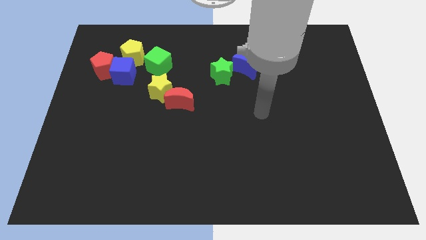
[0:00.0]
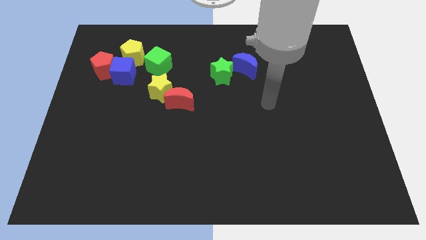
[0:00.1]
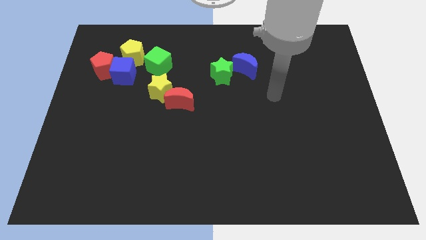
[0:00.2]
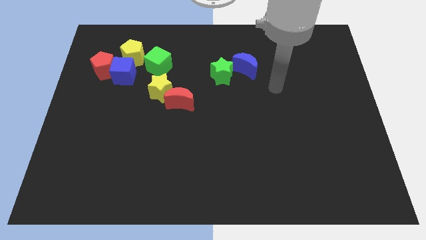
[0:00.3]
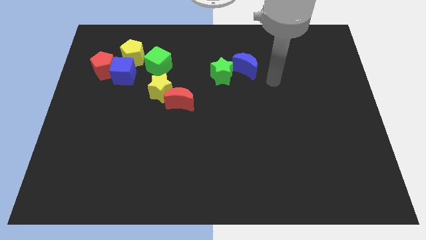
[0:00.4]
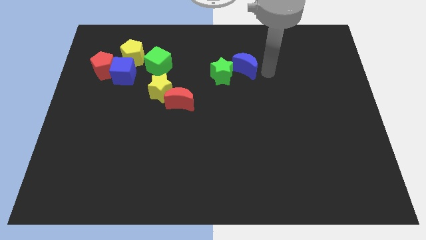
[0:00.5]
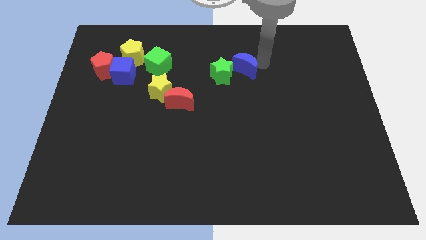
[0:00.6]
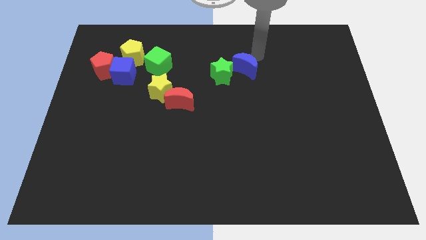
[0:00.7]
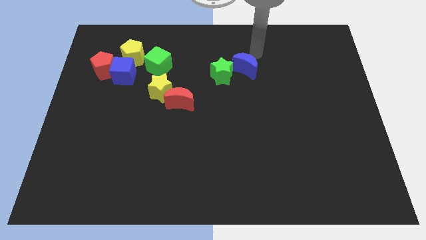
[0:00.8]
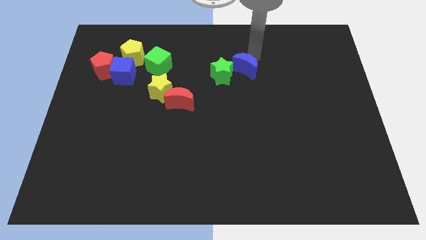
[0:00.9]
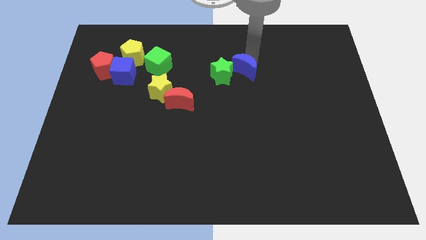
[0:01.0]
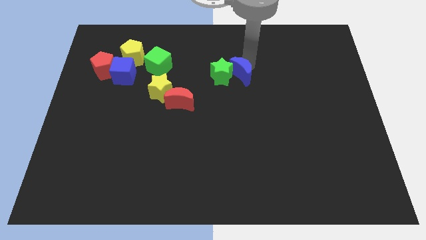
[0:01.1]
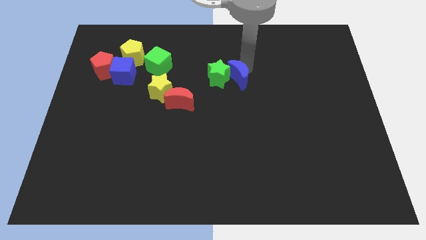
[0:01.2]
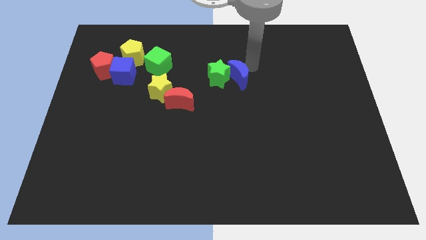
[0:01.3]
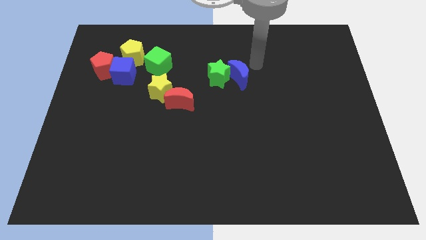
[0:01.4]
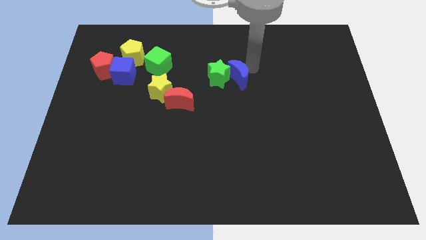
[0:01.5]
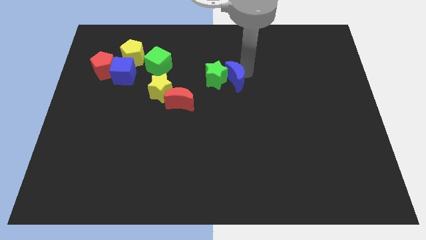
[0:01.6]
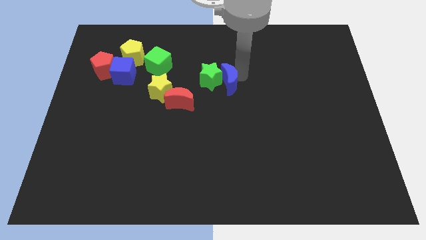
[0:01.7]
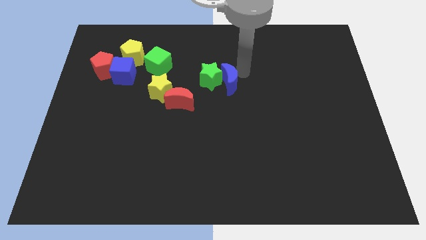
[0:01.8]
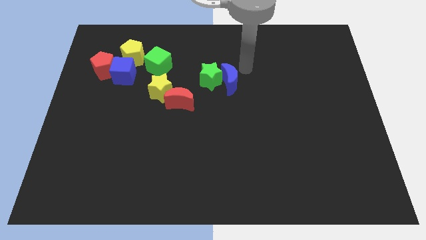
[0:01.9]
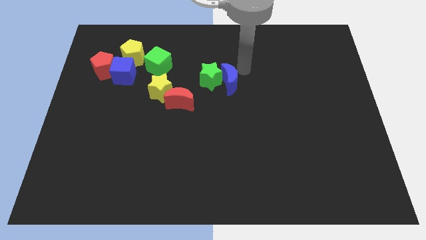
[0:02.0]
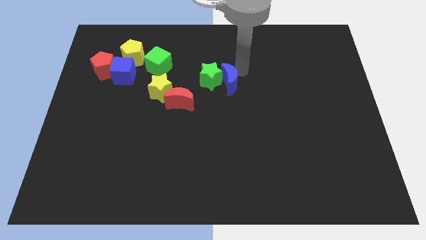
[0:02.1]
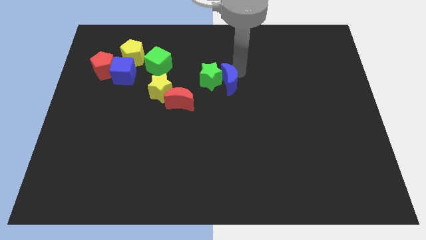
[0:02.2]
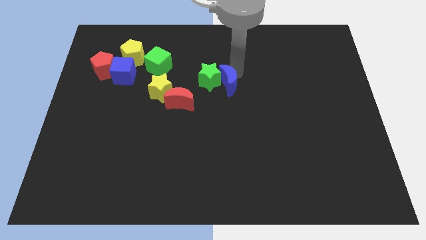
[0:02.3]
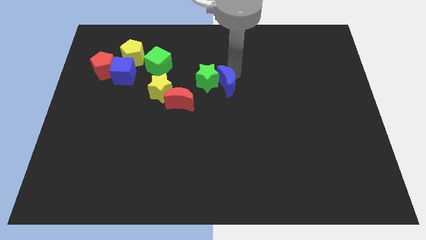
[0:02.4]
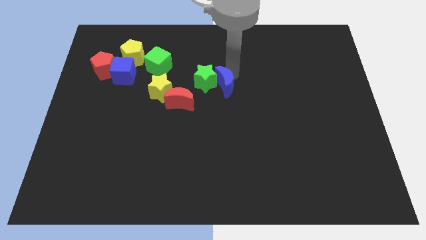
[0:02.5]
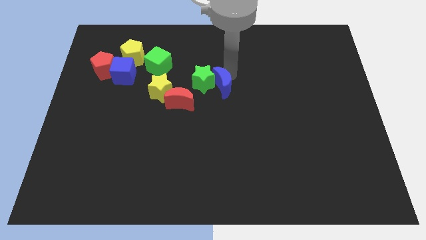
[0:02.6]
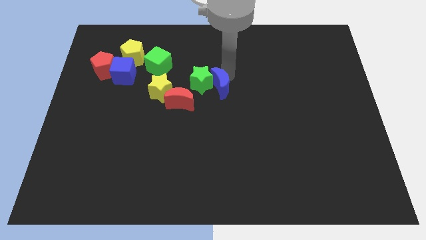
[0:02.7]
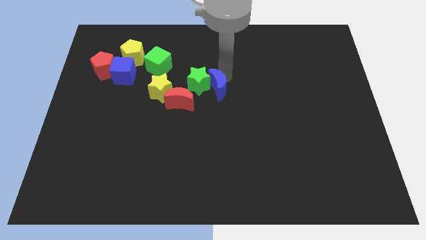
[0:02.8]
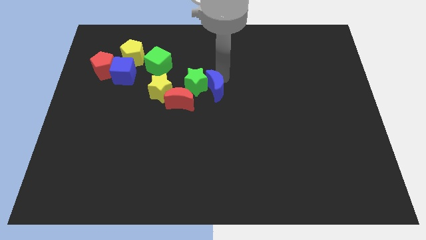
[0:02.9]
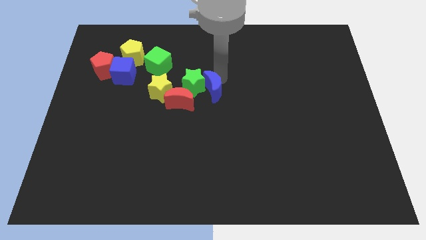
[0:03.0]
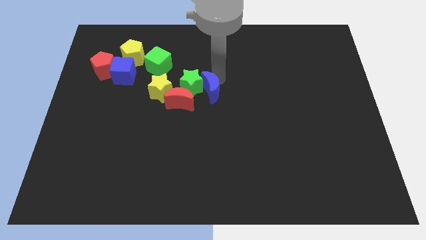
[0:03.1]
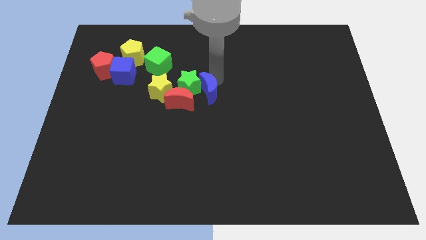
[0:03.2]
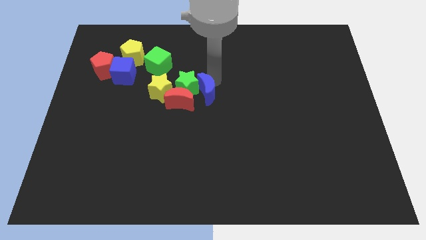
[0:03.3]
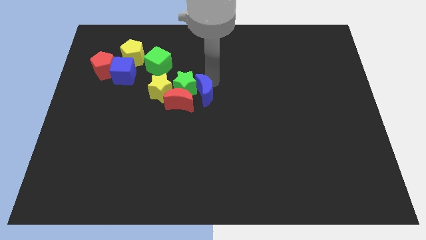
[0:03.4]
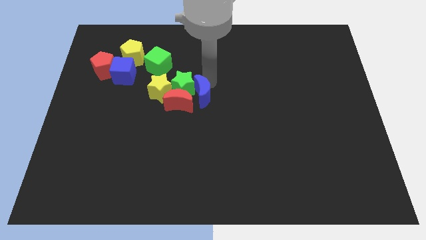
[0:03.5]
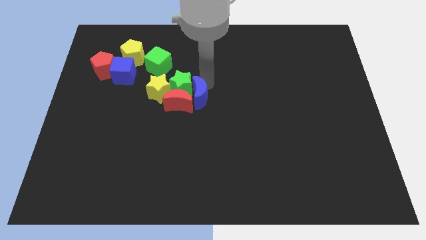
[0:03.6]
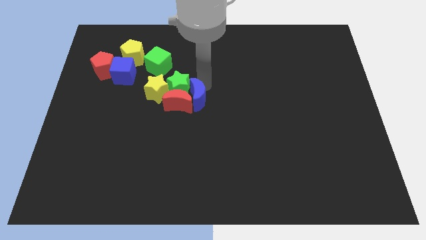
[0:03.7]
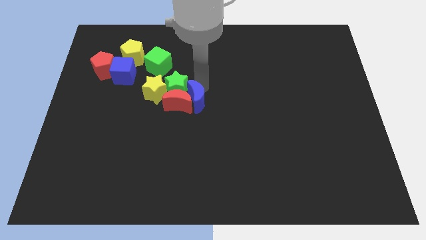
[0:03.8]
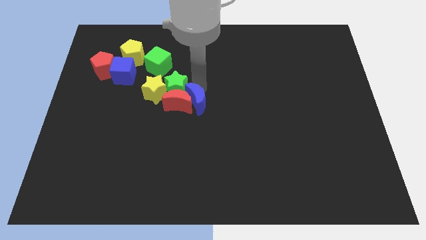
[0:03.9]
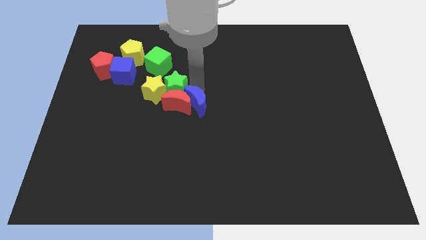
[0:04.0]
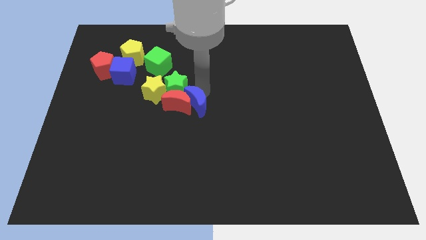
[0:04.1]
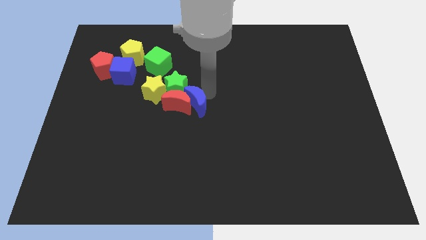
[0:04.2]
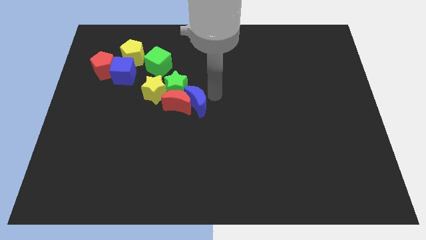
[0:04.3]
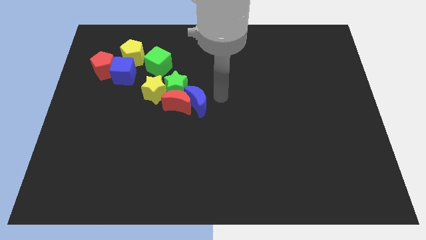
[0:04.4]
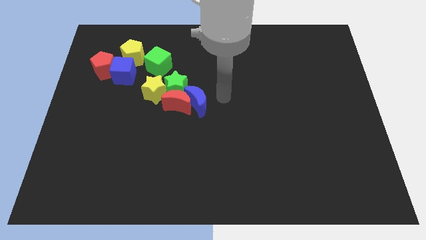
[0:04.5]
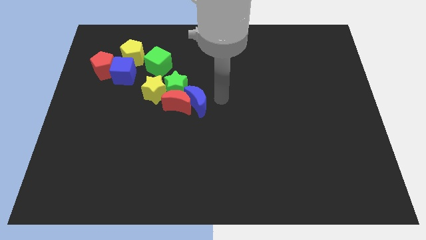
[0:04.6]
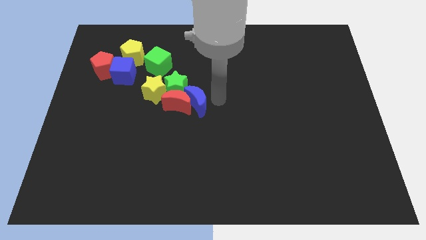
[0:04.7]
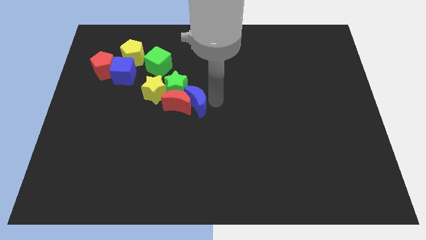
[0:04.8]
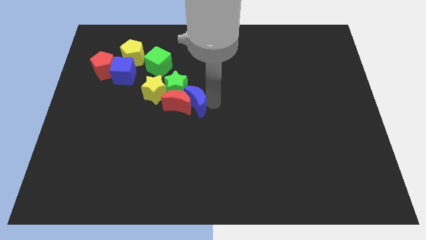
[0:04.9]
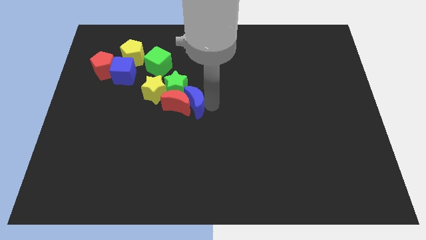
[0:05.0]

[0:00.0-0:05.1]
move the blue moon to the bottom right of the yellow star

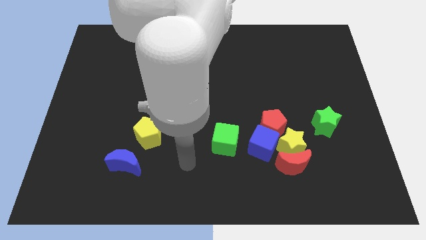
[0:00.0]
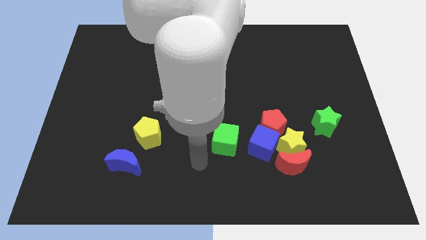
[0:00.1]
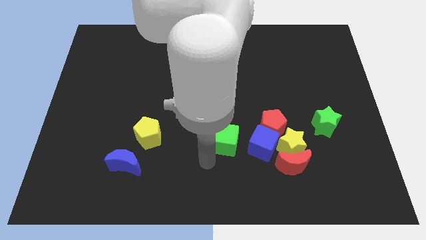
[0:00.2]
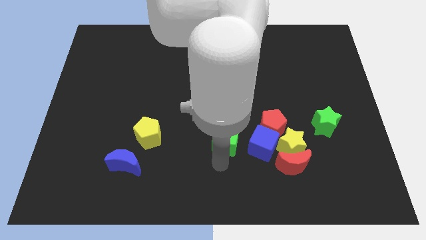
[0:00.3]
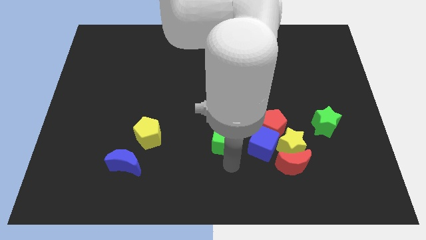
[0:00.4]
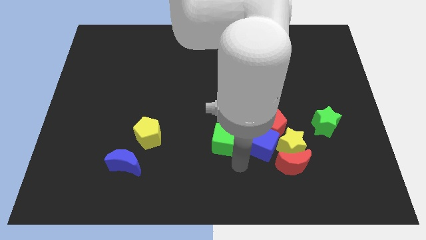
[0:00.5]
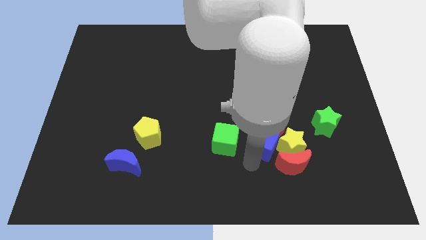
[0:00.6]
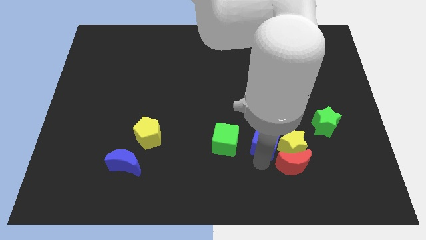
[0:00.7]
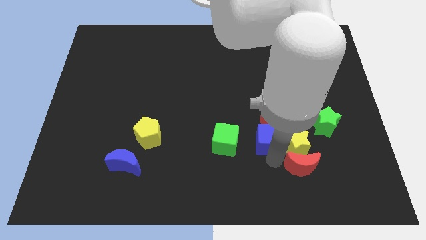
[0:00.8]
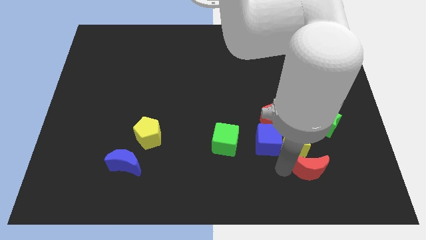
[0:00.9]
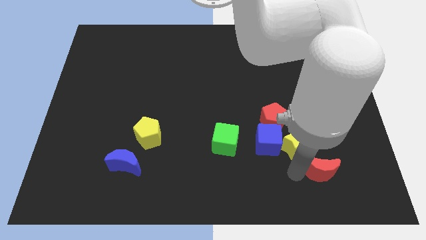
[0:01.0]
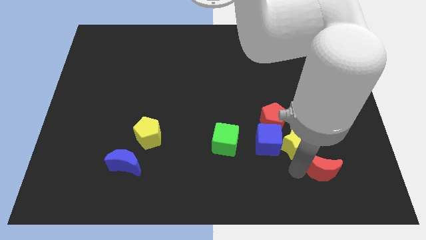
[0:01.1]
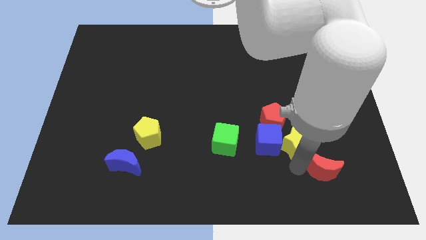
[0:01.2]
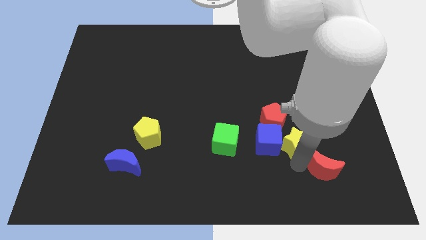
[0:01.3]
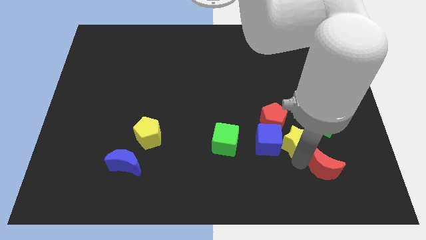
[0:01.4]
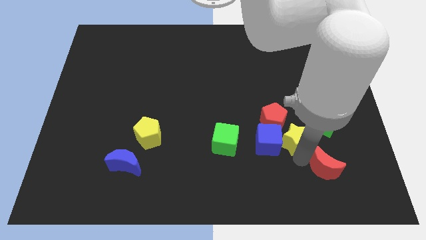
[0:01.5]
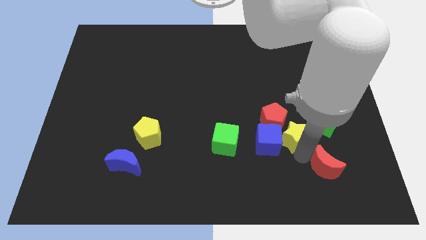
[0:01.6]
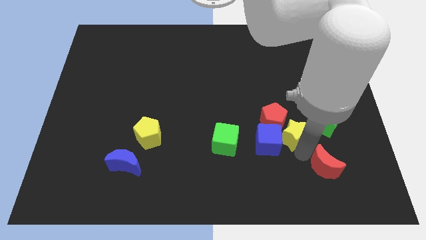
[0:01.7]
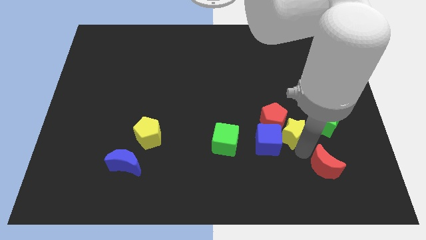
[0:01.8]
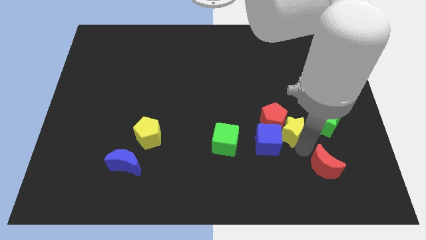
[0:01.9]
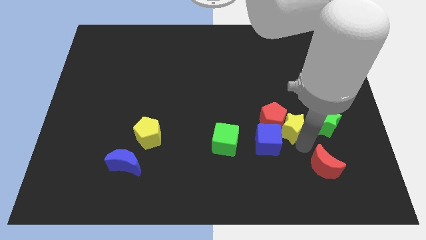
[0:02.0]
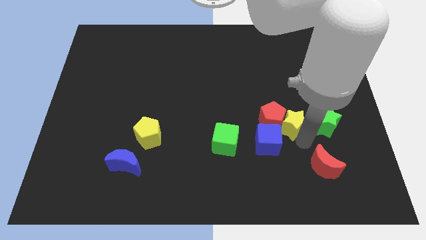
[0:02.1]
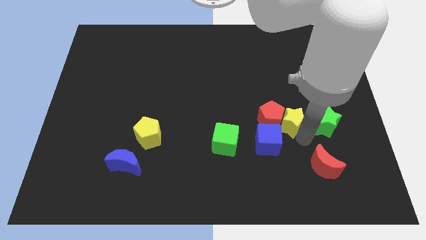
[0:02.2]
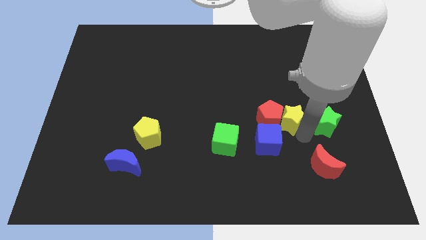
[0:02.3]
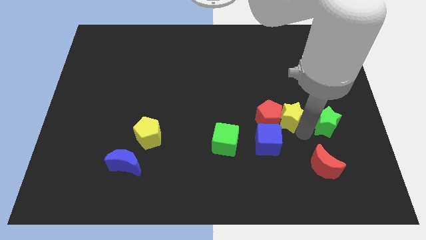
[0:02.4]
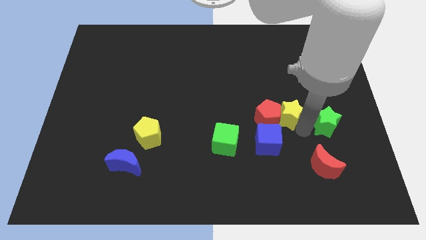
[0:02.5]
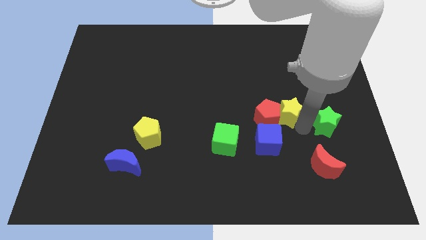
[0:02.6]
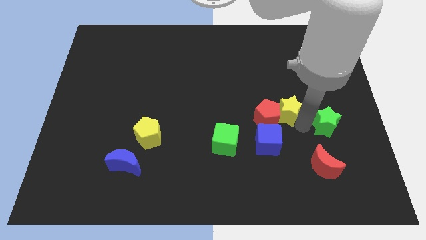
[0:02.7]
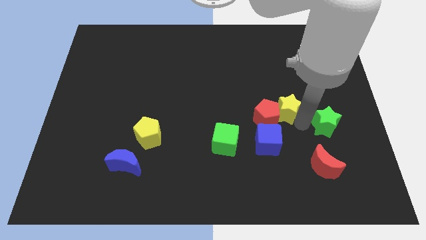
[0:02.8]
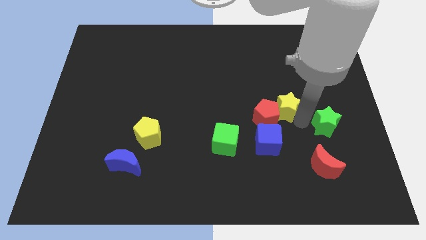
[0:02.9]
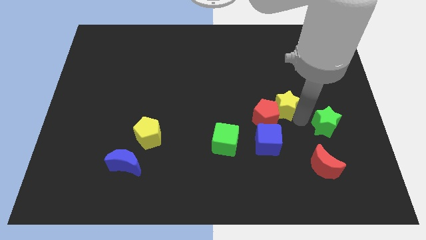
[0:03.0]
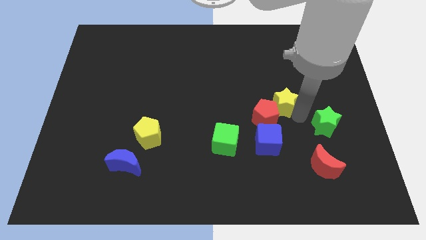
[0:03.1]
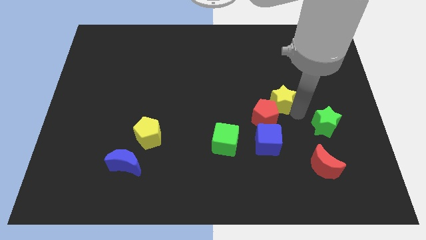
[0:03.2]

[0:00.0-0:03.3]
put the yellow star to the top side of the red pentagon
